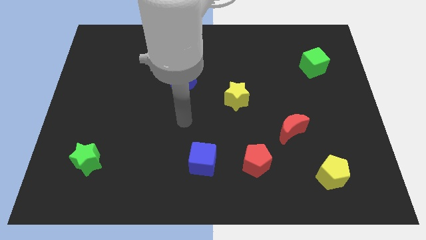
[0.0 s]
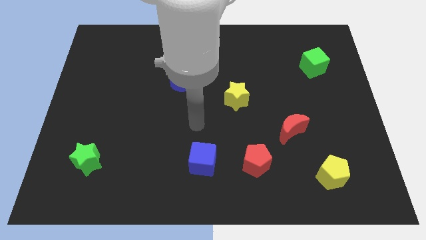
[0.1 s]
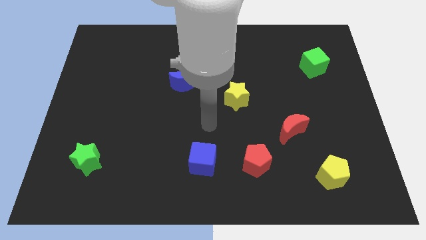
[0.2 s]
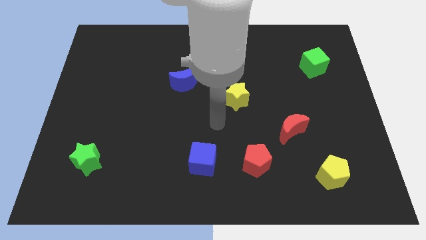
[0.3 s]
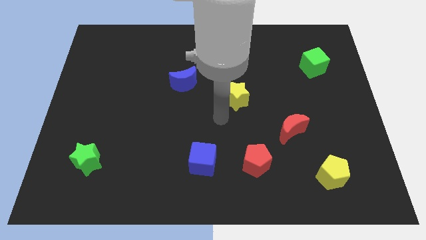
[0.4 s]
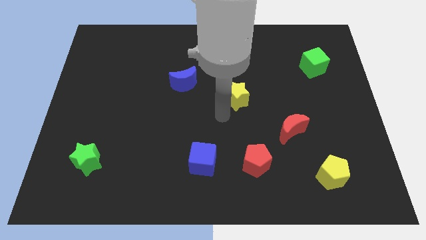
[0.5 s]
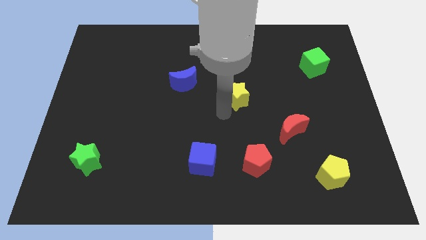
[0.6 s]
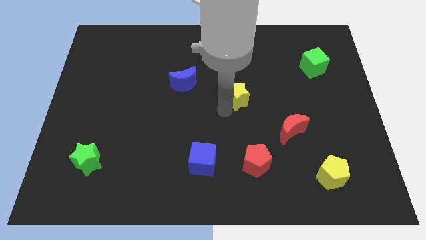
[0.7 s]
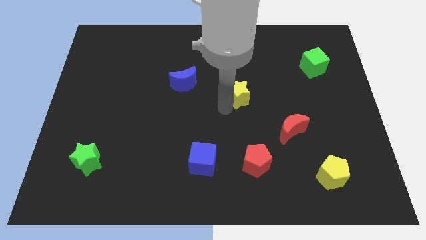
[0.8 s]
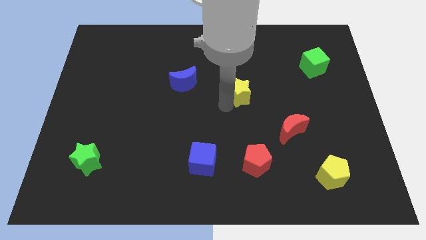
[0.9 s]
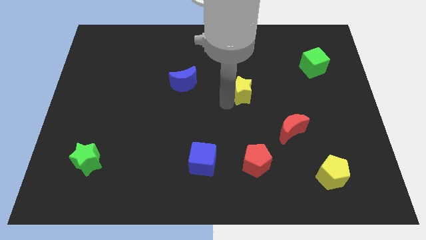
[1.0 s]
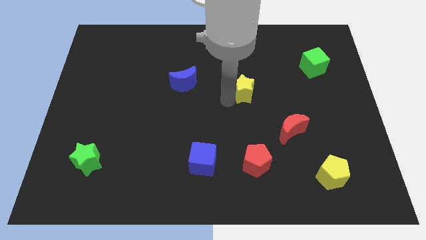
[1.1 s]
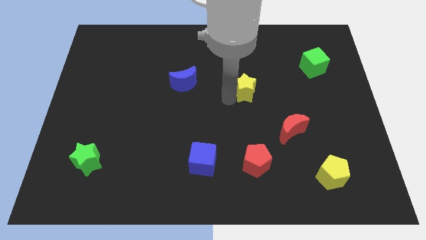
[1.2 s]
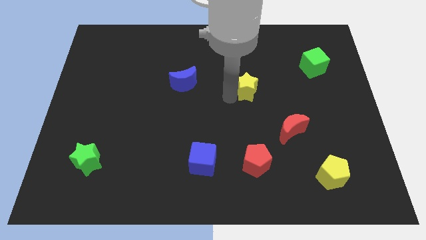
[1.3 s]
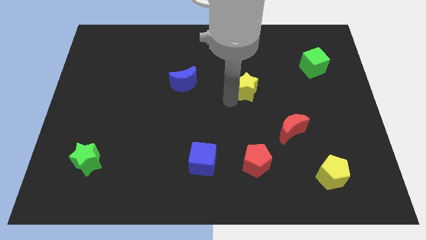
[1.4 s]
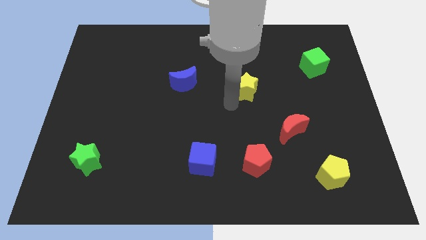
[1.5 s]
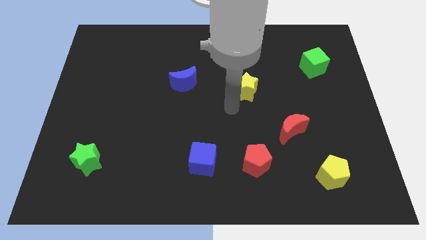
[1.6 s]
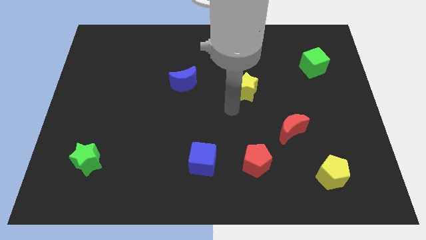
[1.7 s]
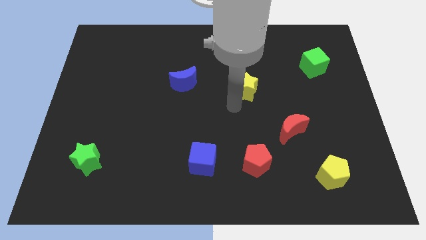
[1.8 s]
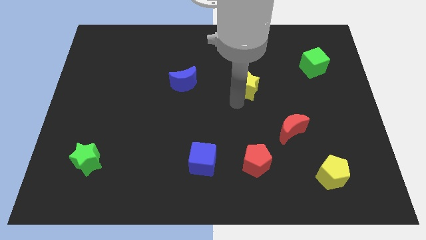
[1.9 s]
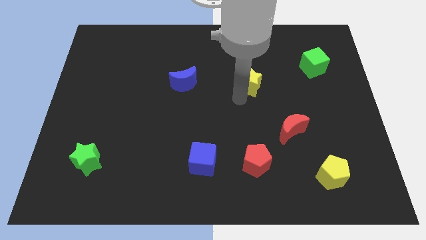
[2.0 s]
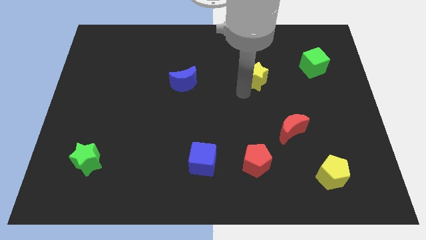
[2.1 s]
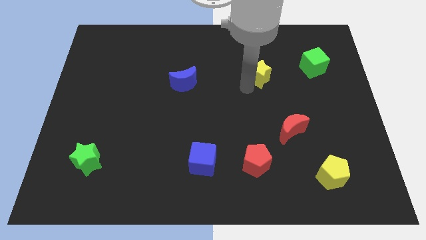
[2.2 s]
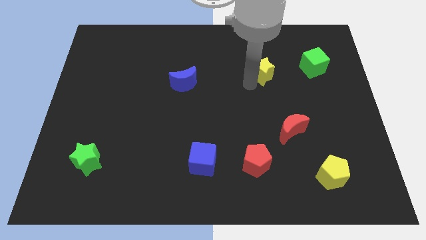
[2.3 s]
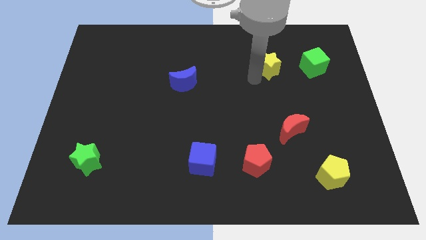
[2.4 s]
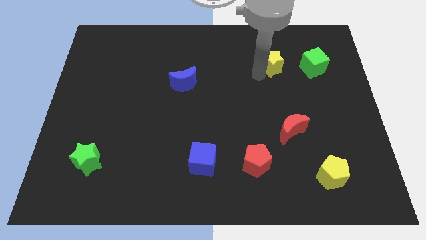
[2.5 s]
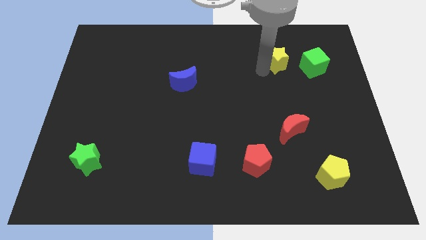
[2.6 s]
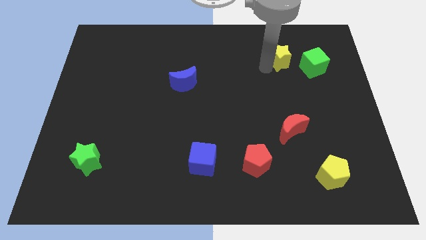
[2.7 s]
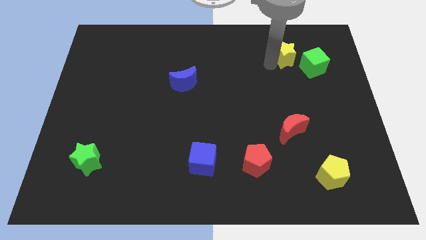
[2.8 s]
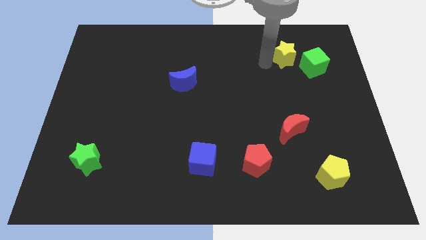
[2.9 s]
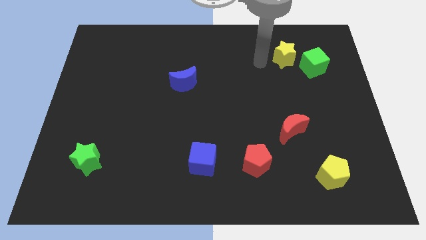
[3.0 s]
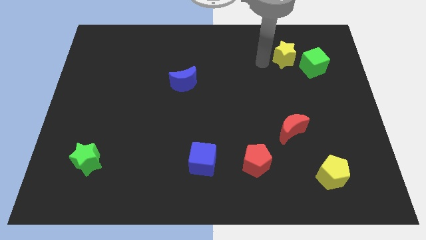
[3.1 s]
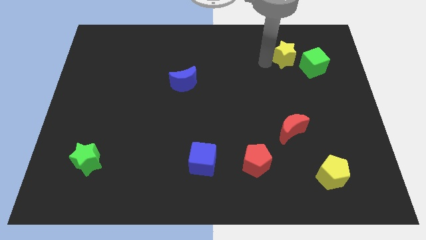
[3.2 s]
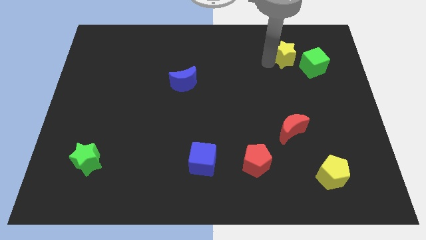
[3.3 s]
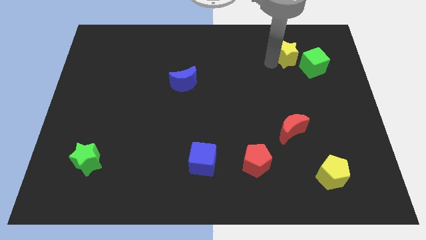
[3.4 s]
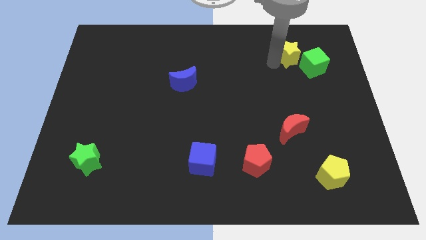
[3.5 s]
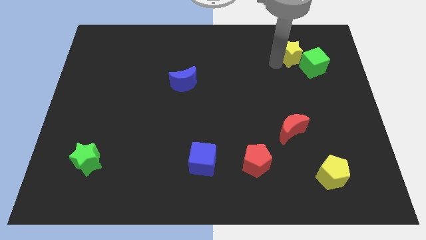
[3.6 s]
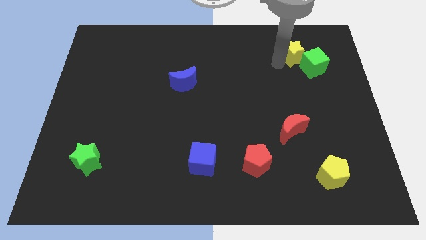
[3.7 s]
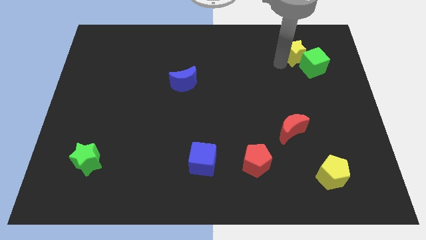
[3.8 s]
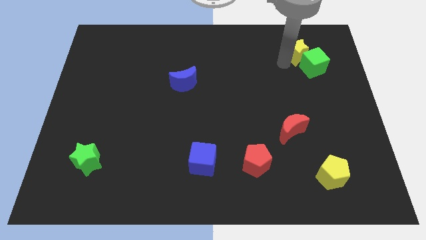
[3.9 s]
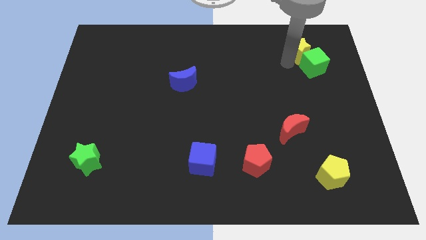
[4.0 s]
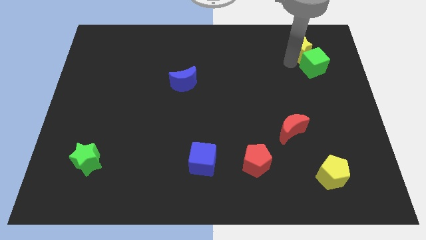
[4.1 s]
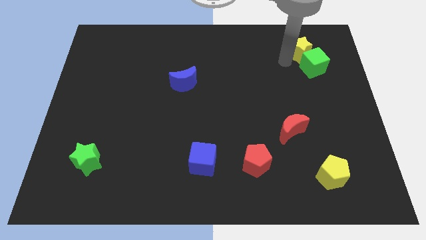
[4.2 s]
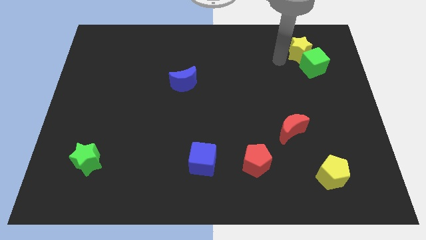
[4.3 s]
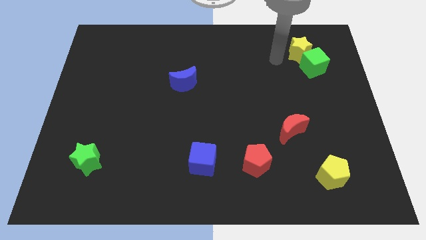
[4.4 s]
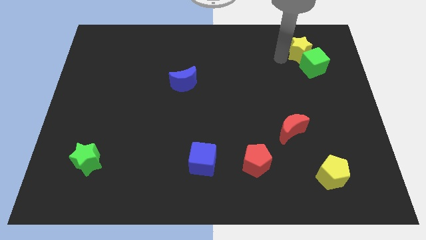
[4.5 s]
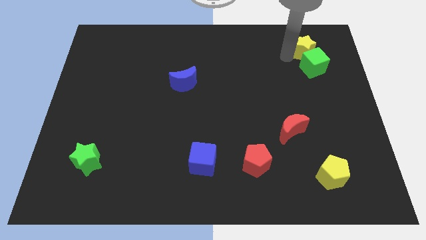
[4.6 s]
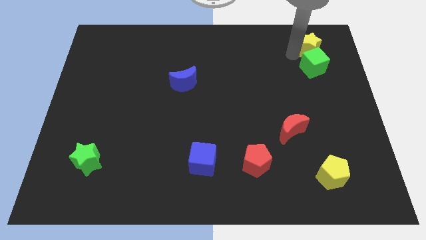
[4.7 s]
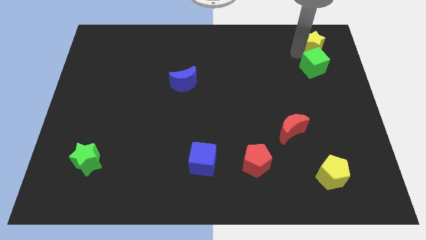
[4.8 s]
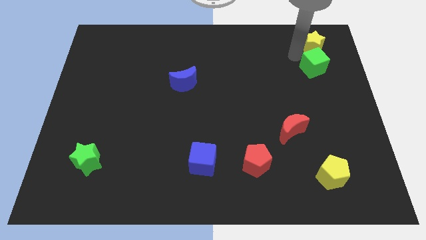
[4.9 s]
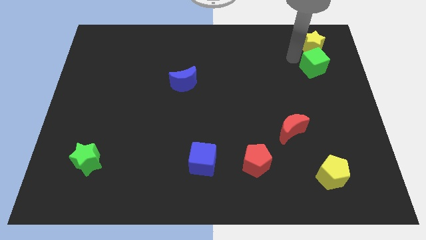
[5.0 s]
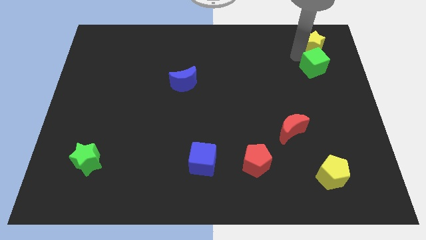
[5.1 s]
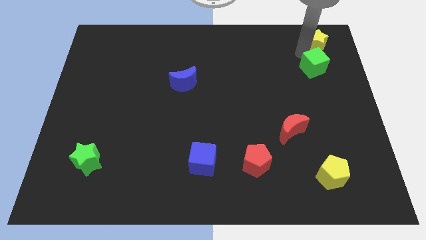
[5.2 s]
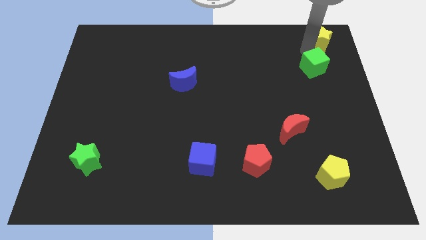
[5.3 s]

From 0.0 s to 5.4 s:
move the yellow star to the upper right corner

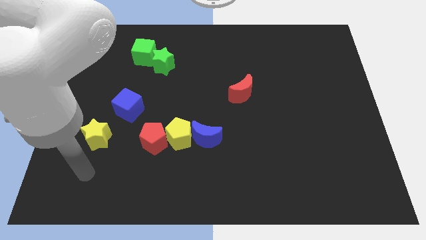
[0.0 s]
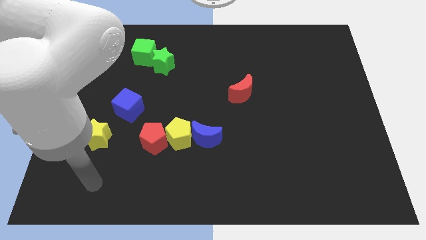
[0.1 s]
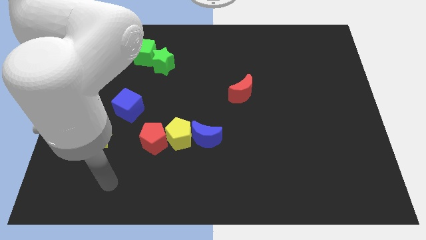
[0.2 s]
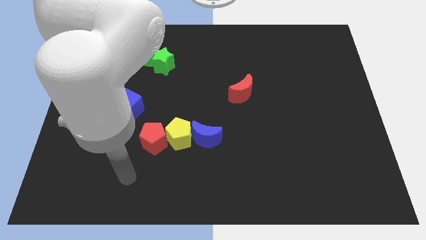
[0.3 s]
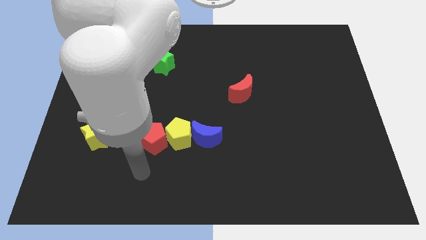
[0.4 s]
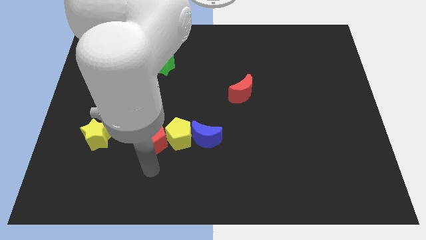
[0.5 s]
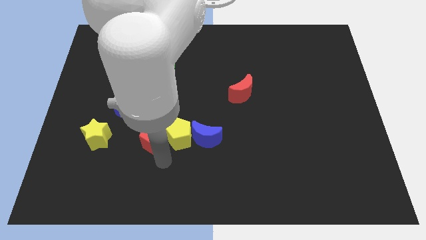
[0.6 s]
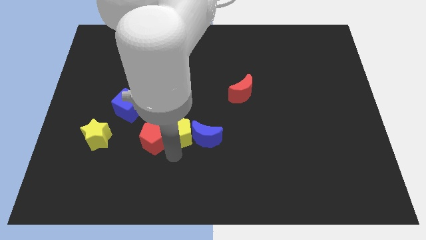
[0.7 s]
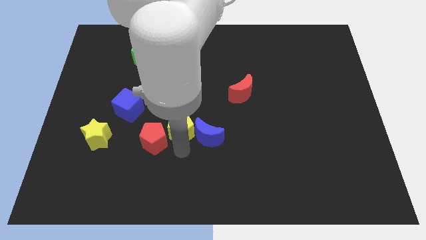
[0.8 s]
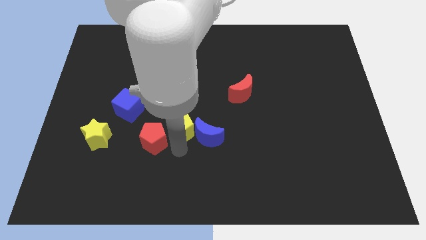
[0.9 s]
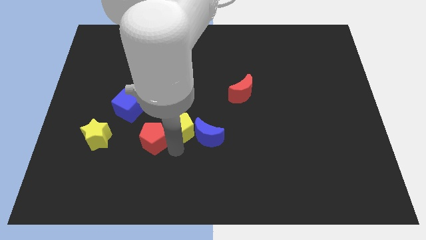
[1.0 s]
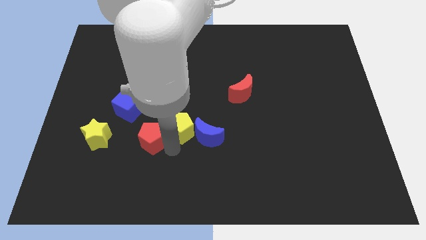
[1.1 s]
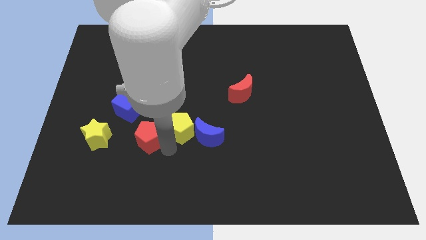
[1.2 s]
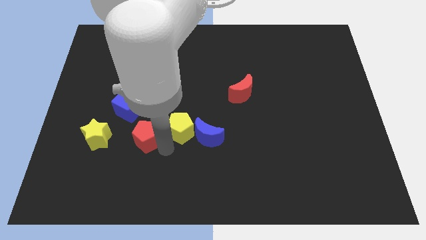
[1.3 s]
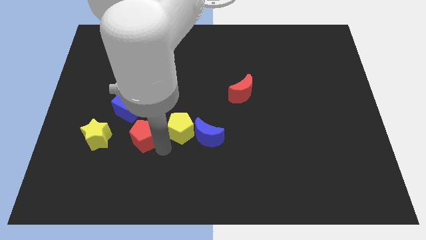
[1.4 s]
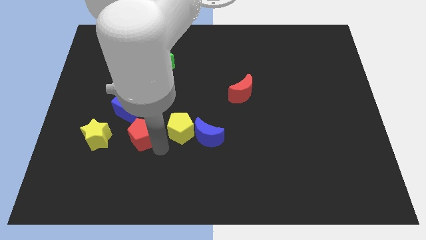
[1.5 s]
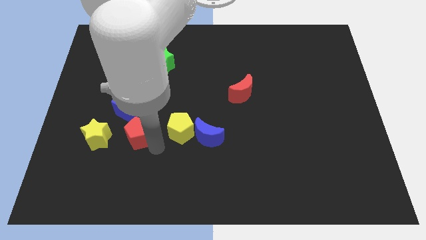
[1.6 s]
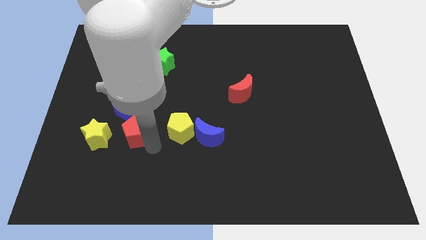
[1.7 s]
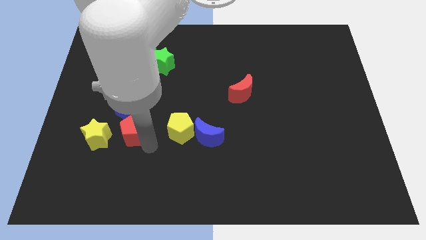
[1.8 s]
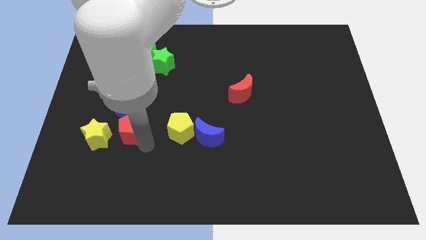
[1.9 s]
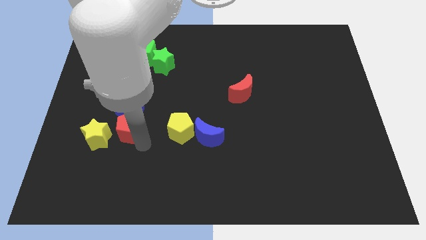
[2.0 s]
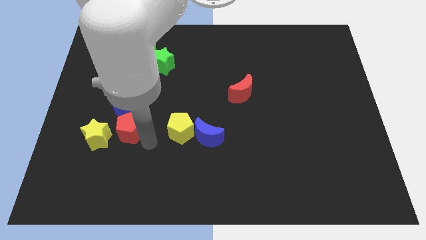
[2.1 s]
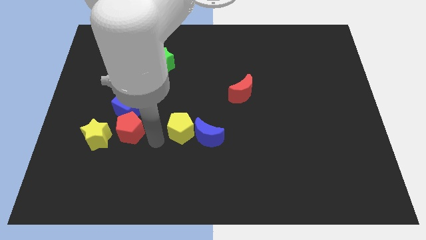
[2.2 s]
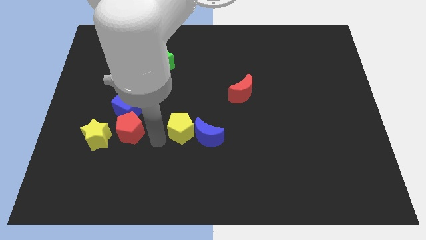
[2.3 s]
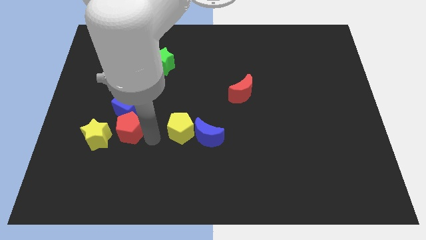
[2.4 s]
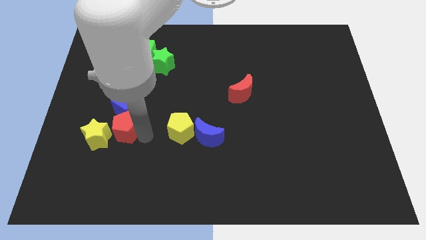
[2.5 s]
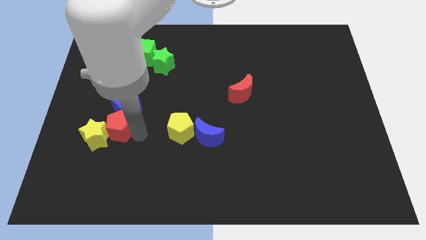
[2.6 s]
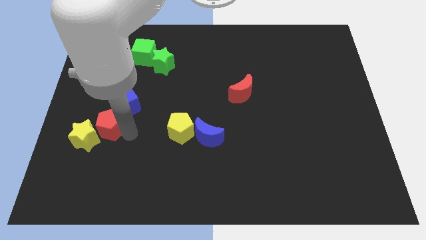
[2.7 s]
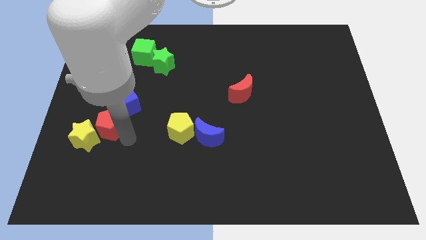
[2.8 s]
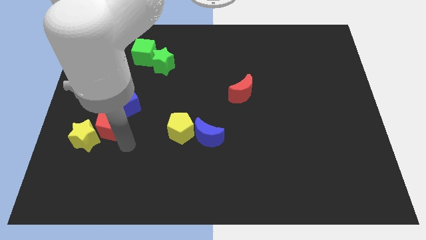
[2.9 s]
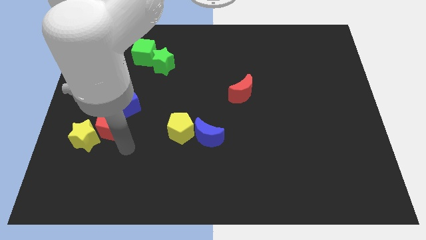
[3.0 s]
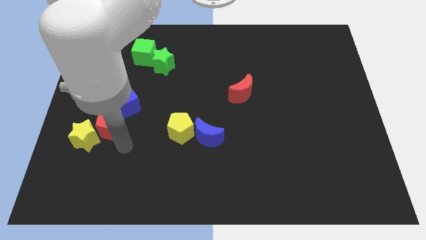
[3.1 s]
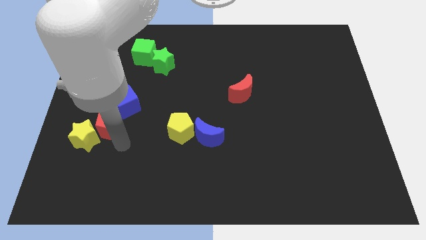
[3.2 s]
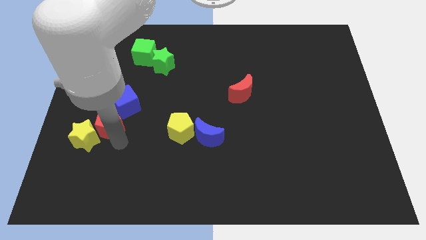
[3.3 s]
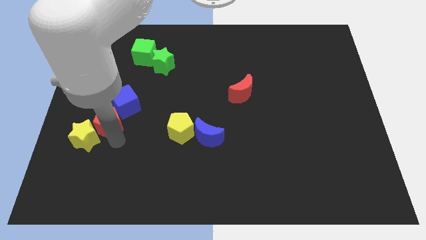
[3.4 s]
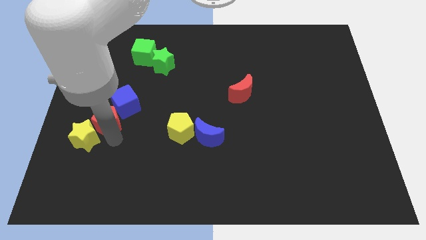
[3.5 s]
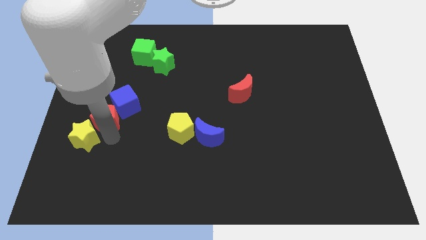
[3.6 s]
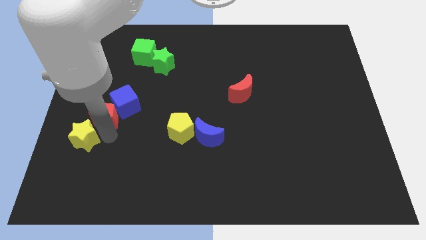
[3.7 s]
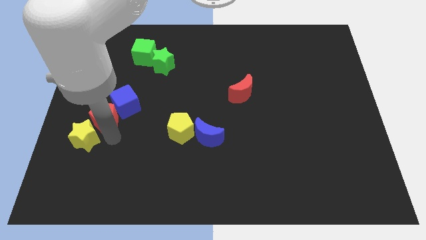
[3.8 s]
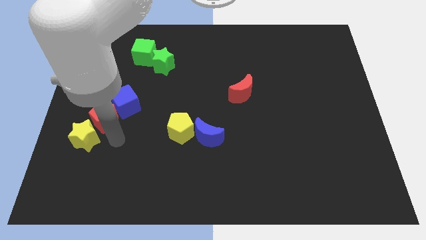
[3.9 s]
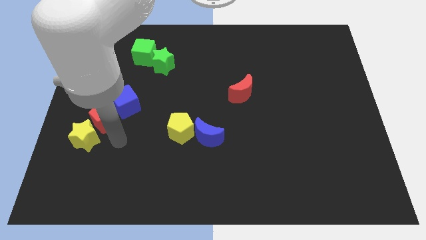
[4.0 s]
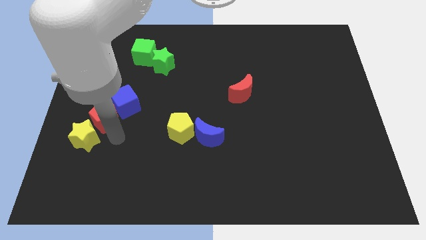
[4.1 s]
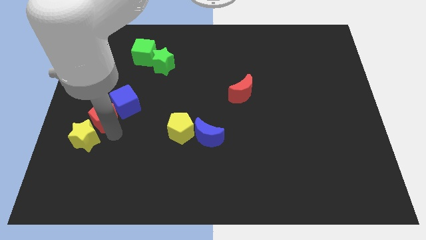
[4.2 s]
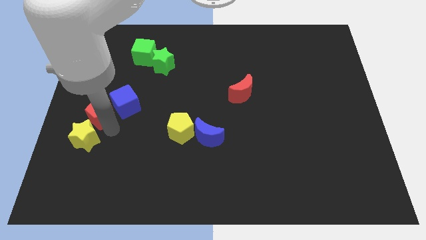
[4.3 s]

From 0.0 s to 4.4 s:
put the red pentagon to the center left
